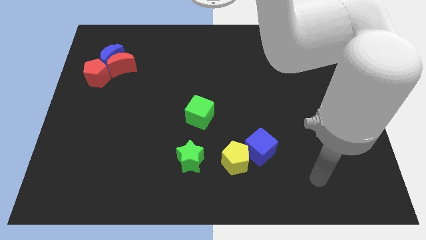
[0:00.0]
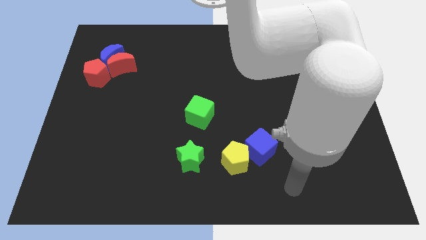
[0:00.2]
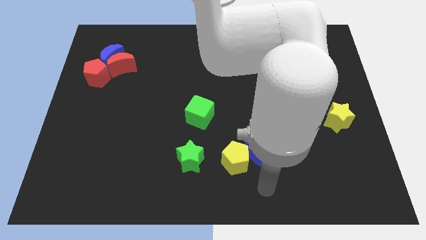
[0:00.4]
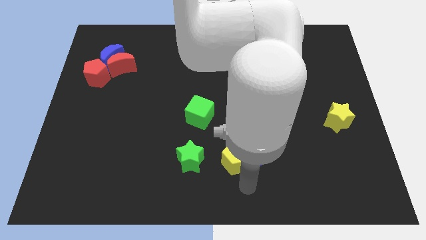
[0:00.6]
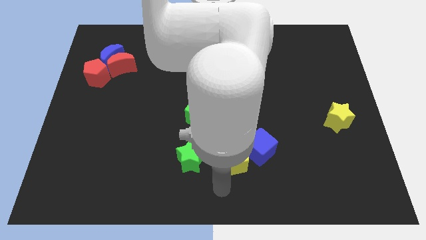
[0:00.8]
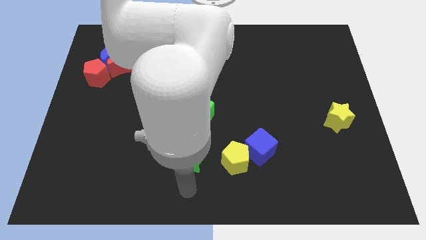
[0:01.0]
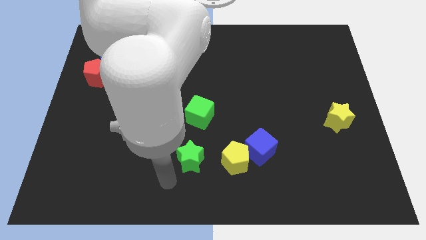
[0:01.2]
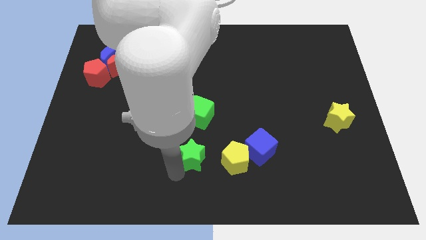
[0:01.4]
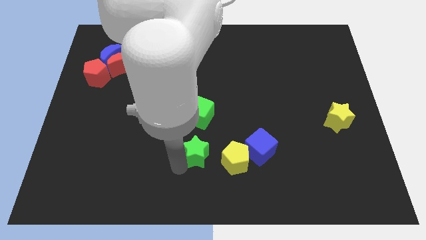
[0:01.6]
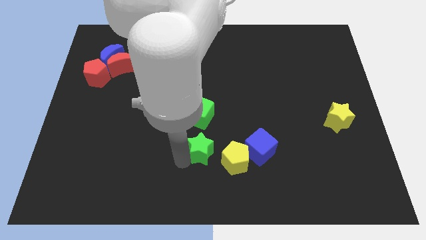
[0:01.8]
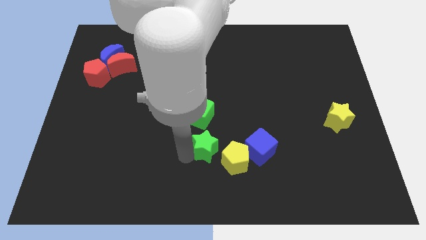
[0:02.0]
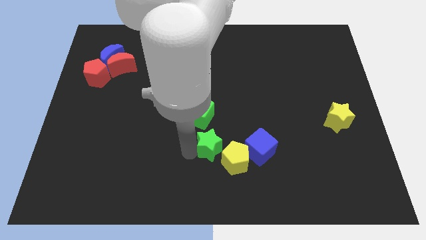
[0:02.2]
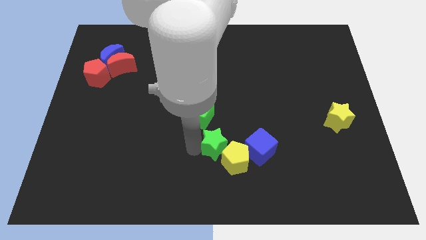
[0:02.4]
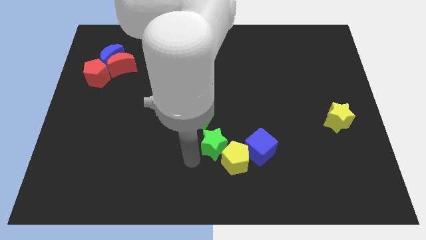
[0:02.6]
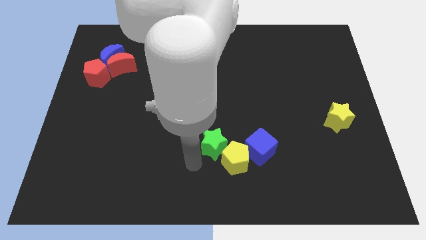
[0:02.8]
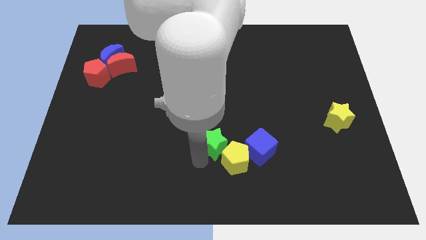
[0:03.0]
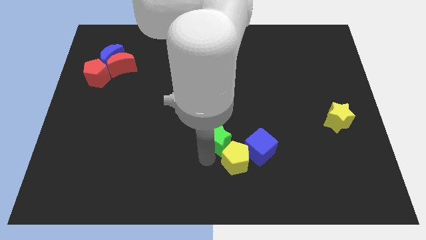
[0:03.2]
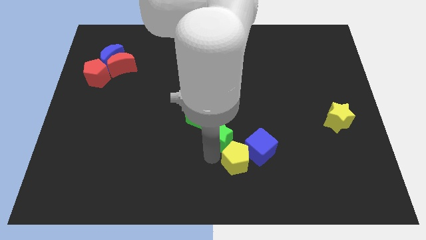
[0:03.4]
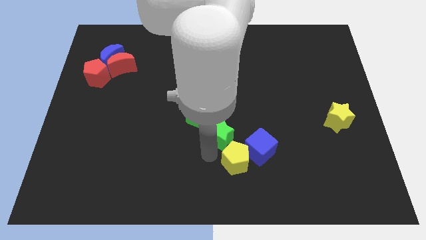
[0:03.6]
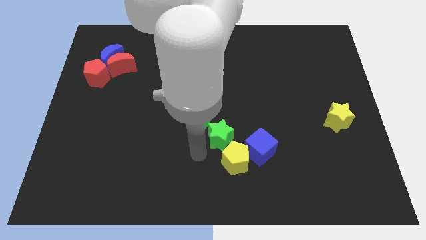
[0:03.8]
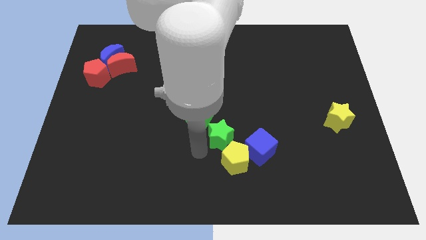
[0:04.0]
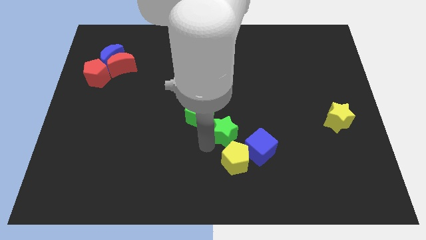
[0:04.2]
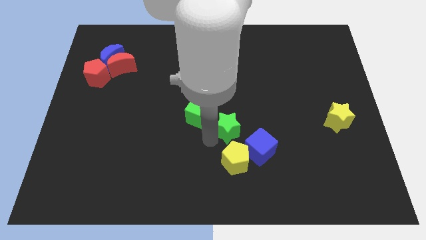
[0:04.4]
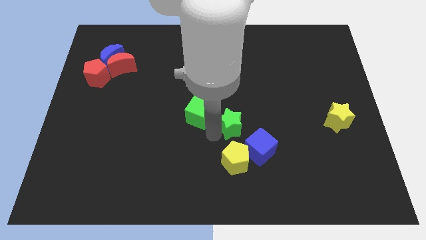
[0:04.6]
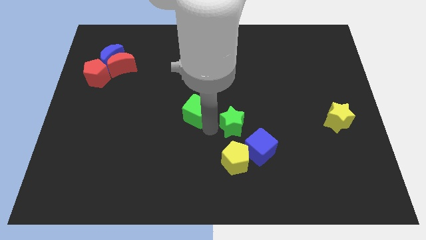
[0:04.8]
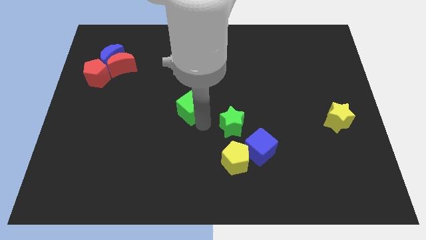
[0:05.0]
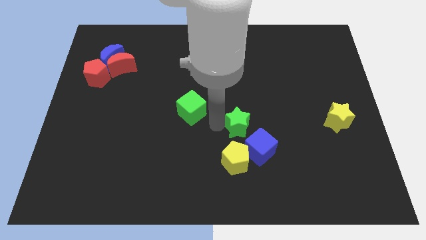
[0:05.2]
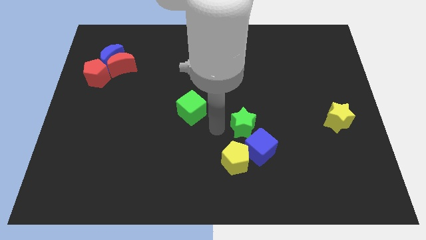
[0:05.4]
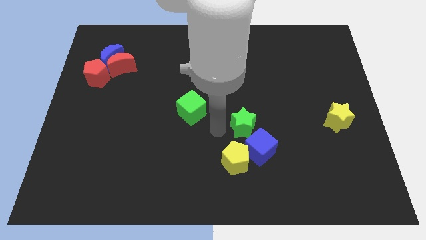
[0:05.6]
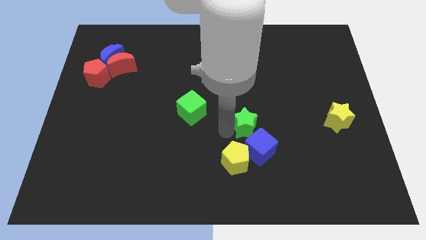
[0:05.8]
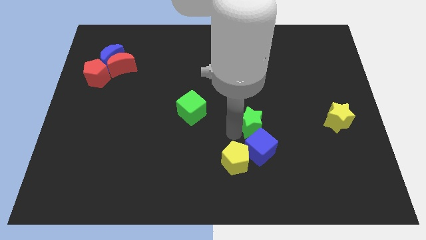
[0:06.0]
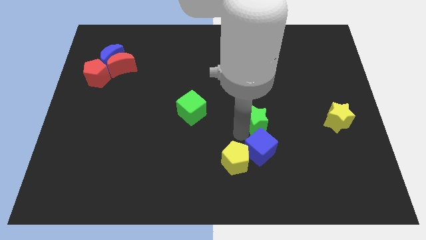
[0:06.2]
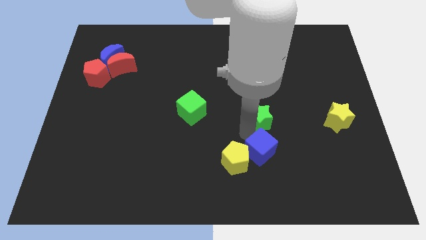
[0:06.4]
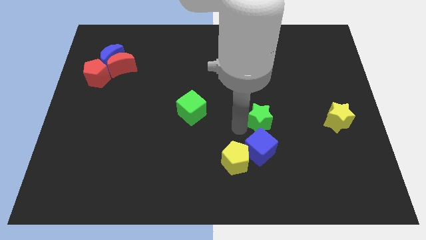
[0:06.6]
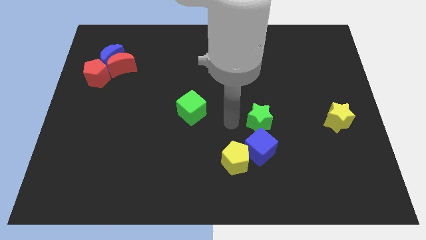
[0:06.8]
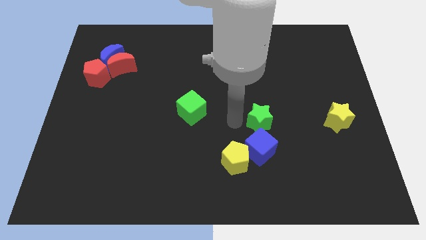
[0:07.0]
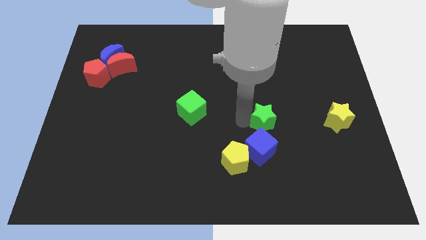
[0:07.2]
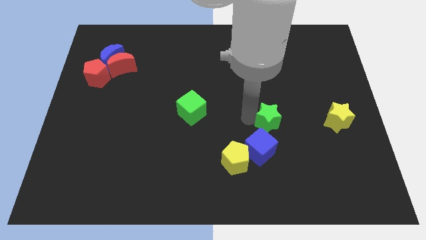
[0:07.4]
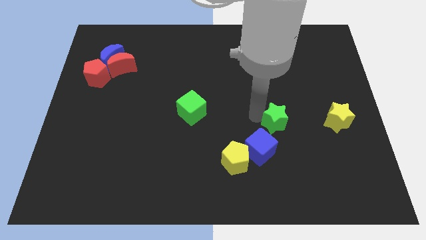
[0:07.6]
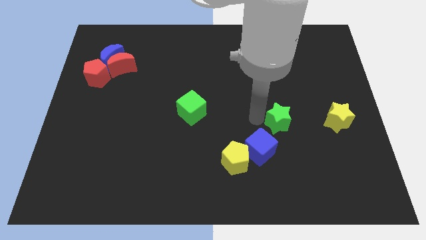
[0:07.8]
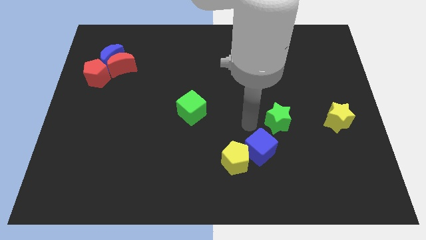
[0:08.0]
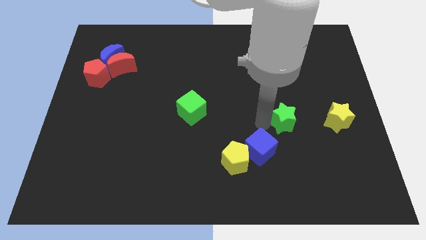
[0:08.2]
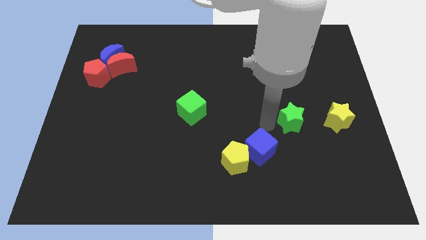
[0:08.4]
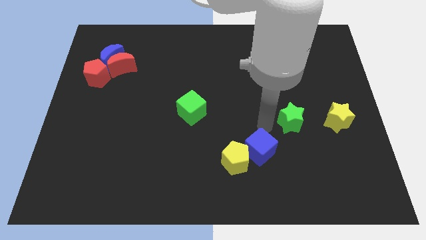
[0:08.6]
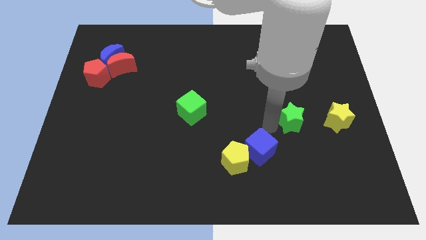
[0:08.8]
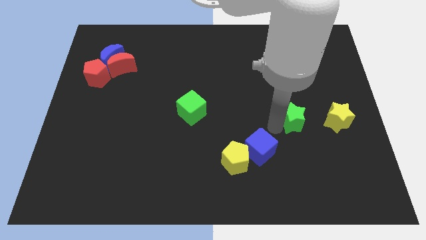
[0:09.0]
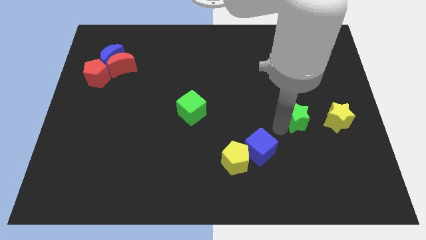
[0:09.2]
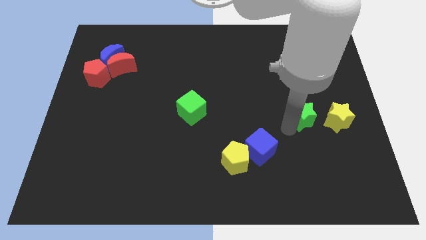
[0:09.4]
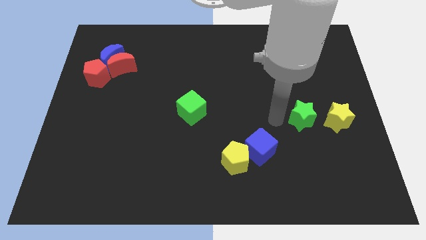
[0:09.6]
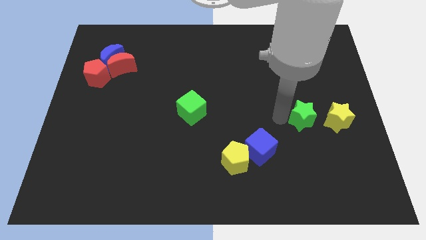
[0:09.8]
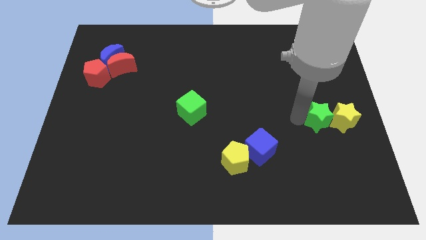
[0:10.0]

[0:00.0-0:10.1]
put the green star close to the yellow star

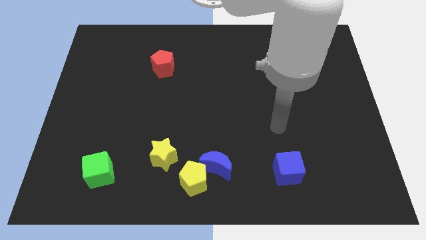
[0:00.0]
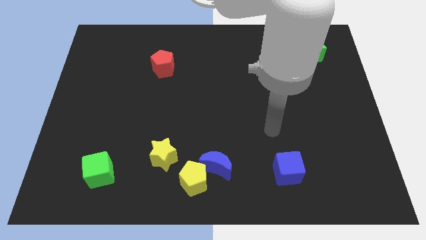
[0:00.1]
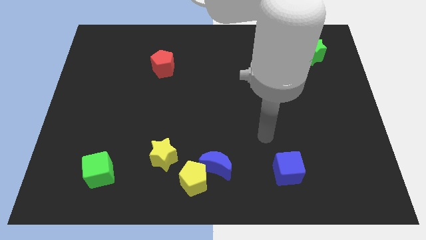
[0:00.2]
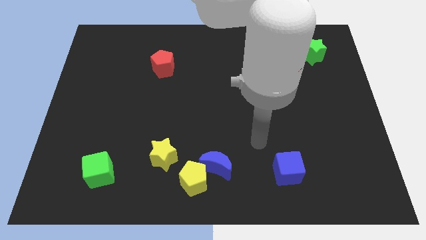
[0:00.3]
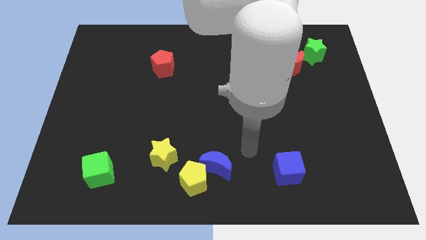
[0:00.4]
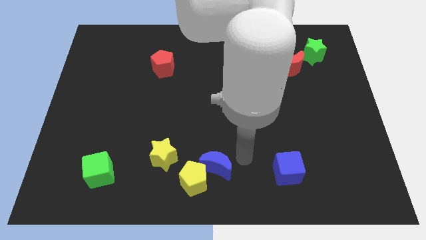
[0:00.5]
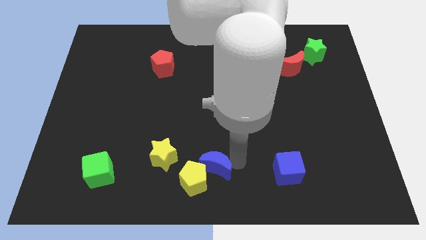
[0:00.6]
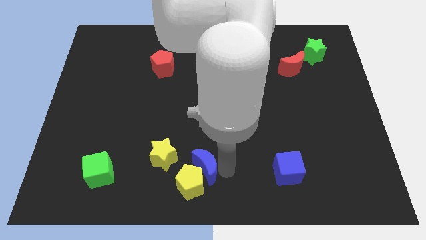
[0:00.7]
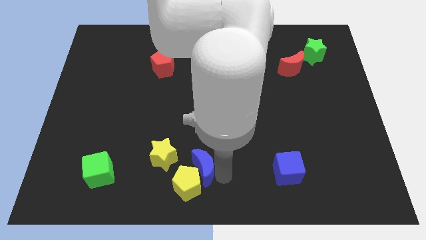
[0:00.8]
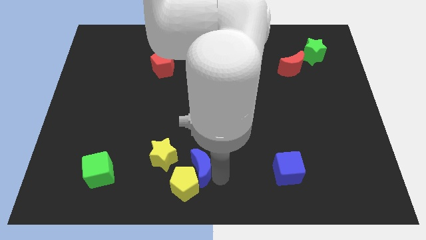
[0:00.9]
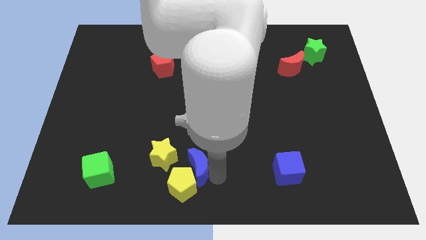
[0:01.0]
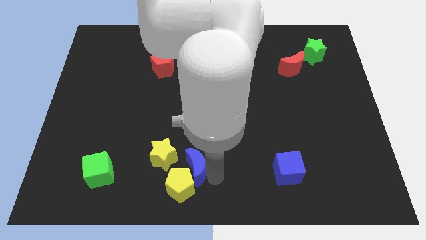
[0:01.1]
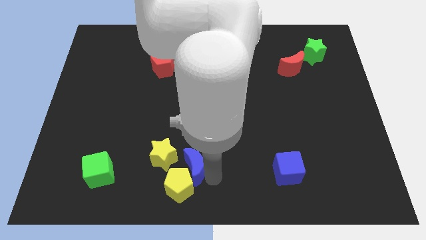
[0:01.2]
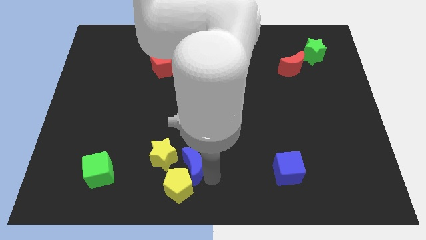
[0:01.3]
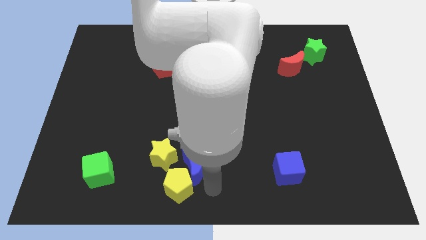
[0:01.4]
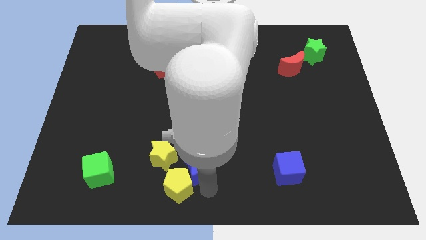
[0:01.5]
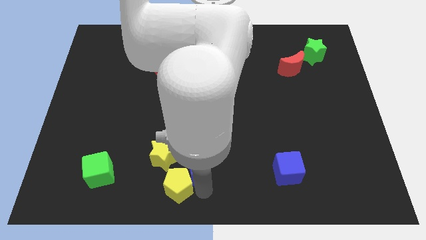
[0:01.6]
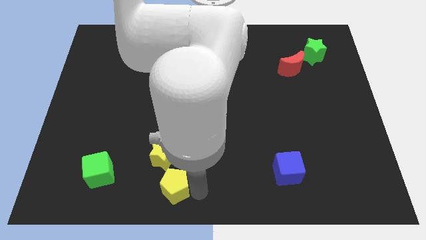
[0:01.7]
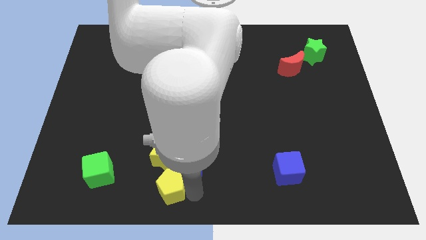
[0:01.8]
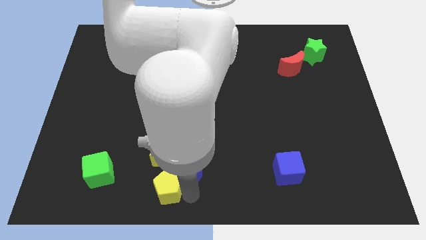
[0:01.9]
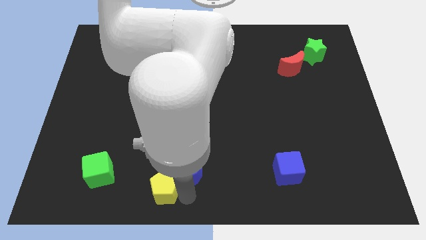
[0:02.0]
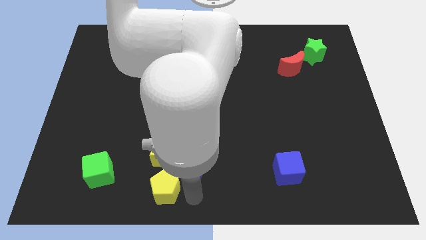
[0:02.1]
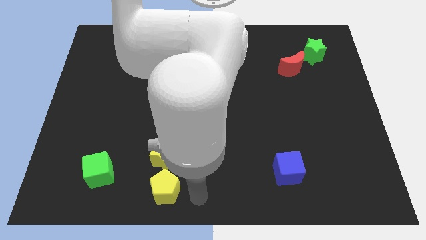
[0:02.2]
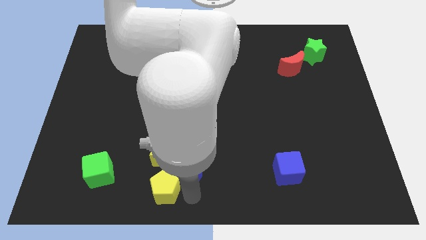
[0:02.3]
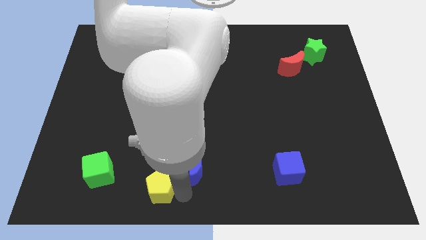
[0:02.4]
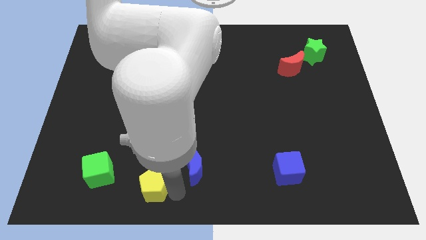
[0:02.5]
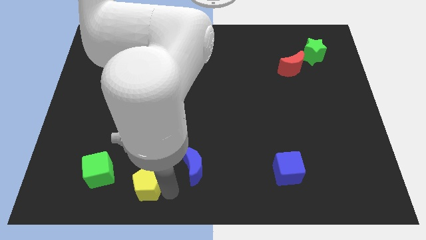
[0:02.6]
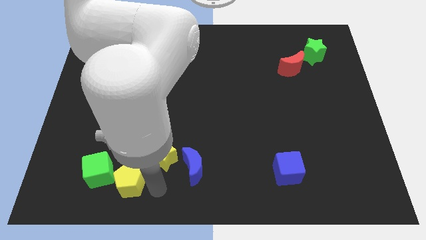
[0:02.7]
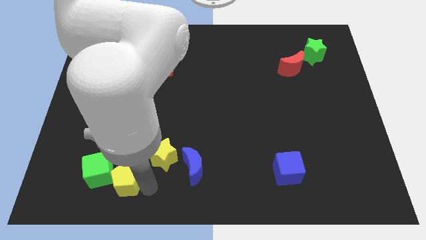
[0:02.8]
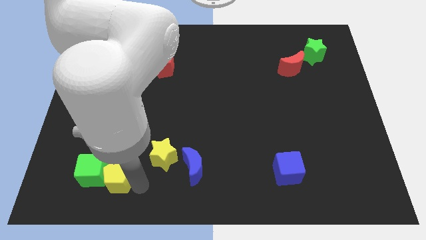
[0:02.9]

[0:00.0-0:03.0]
push the yellow pentagon next to the green cube

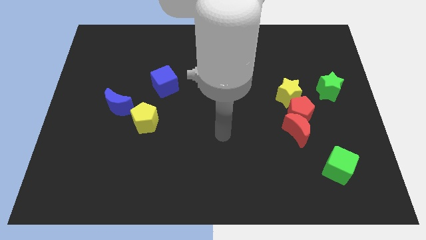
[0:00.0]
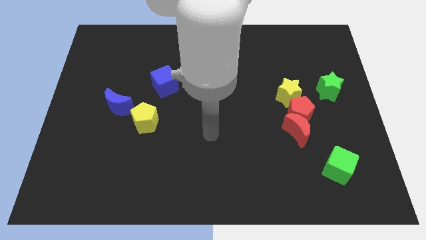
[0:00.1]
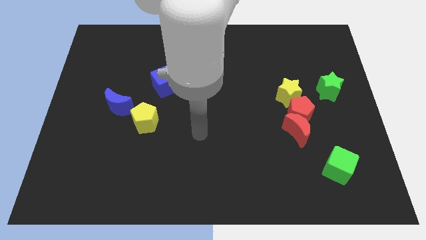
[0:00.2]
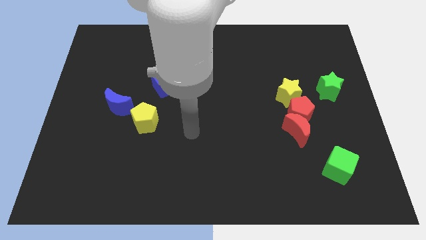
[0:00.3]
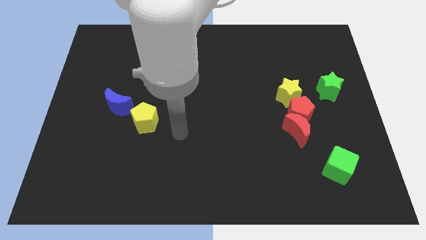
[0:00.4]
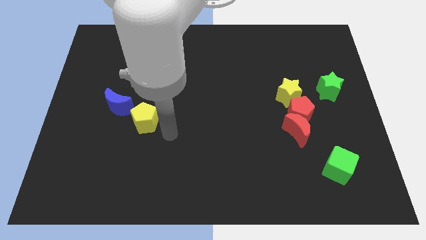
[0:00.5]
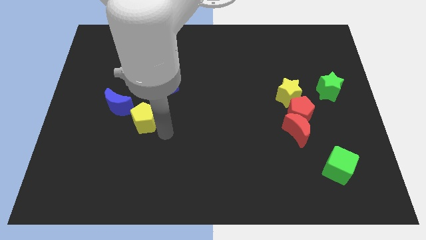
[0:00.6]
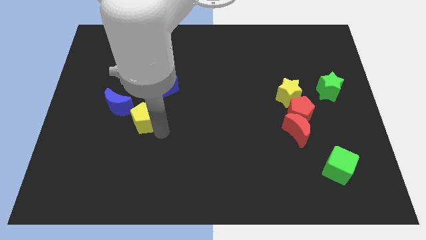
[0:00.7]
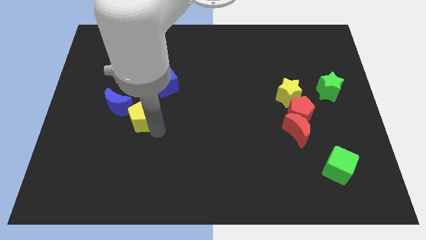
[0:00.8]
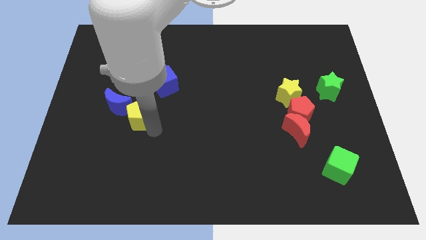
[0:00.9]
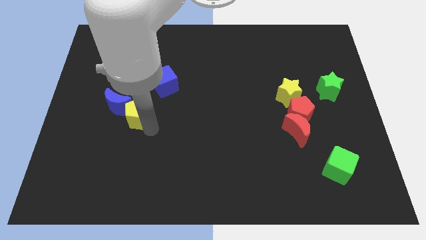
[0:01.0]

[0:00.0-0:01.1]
push the yellow pentagon next to the blue moon
